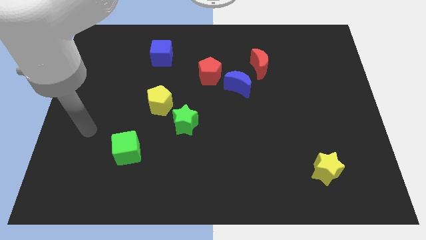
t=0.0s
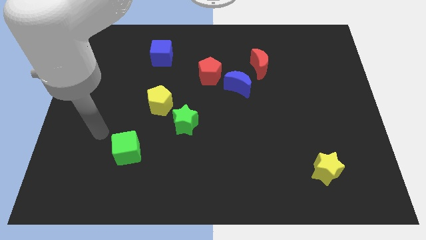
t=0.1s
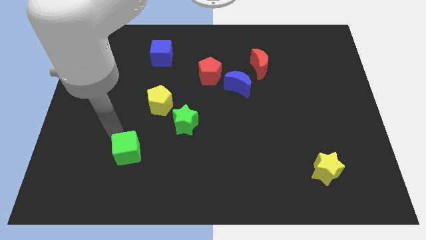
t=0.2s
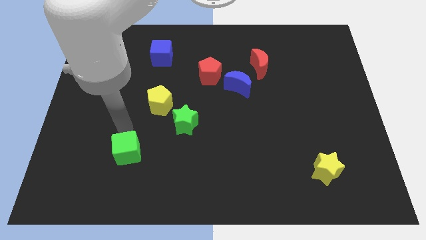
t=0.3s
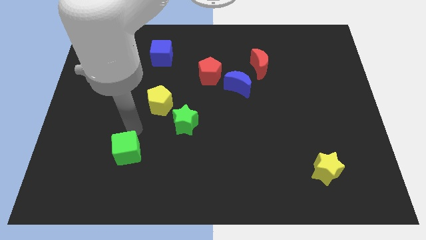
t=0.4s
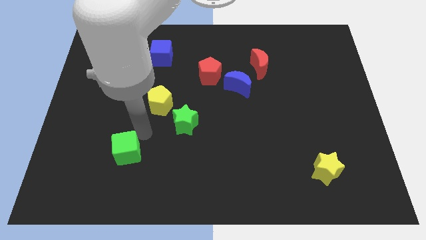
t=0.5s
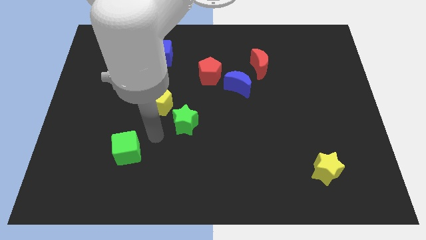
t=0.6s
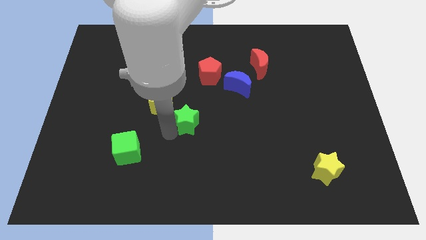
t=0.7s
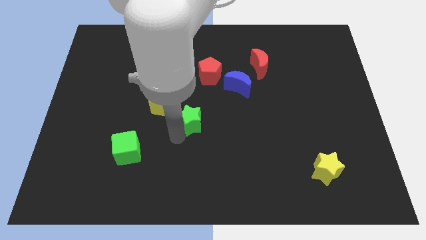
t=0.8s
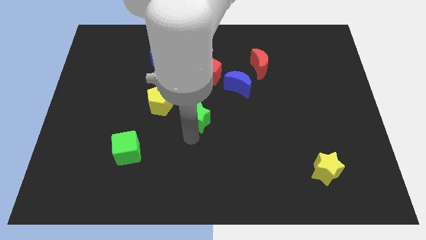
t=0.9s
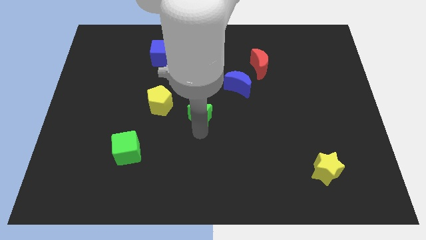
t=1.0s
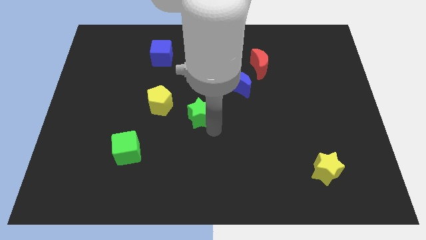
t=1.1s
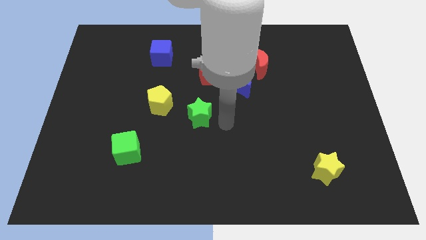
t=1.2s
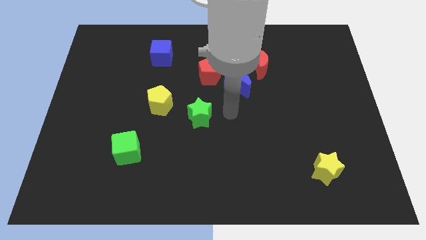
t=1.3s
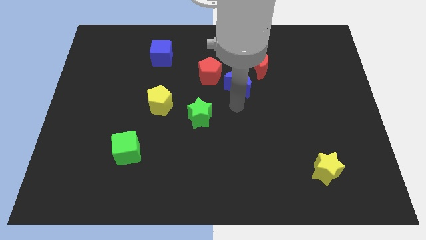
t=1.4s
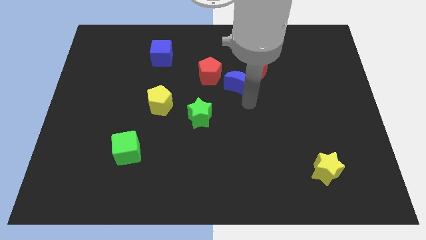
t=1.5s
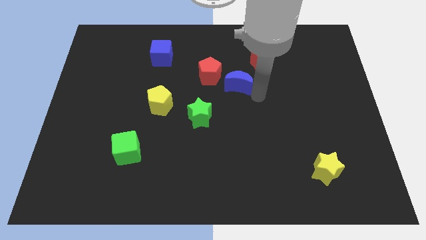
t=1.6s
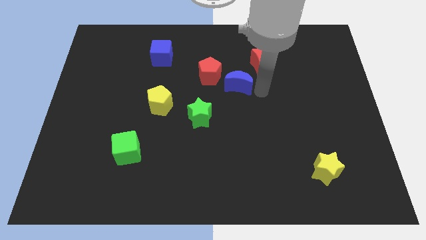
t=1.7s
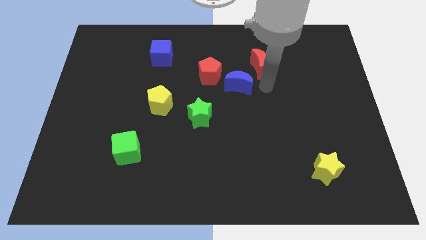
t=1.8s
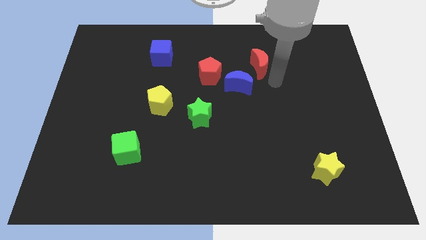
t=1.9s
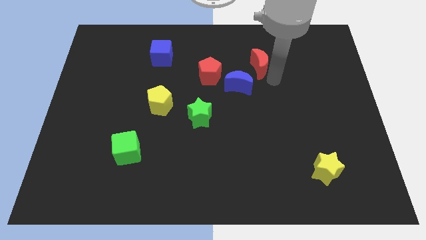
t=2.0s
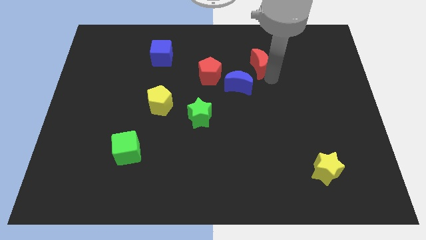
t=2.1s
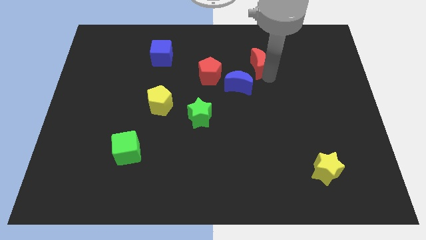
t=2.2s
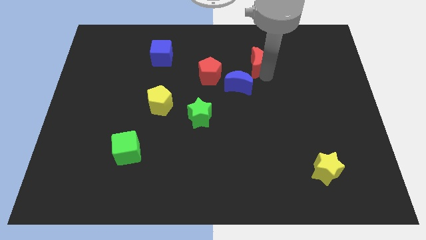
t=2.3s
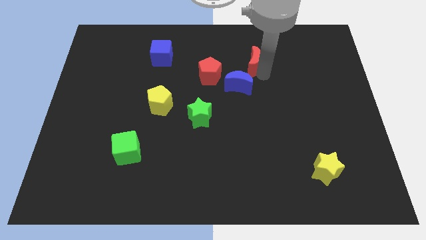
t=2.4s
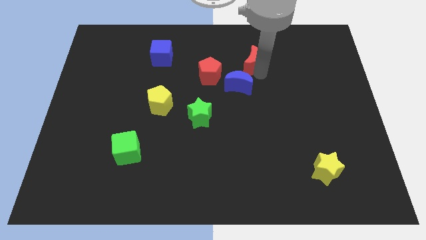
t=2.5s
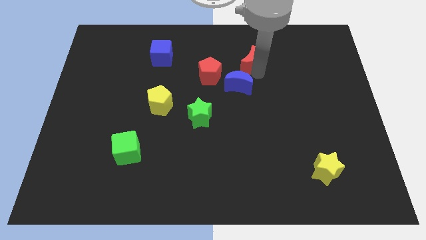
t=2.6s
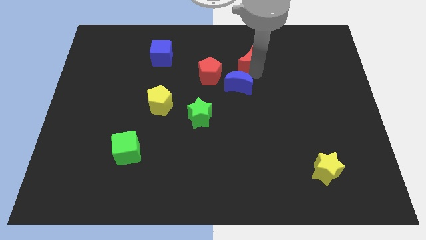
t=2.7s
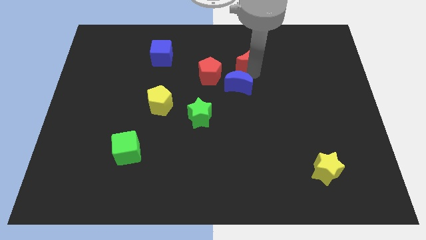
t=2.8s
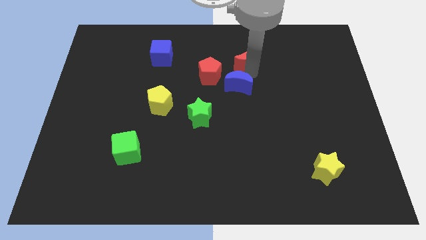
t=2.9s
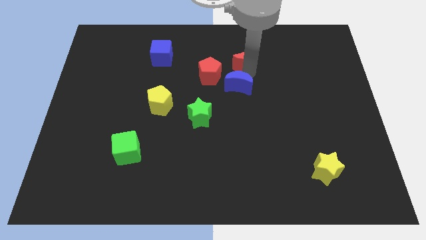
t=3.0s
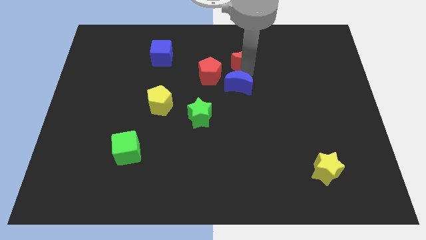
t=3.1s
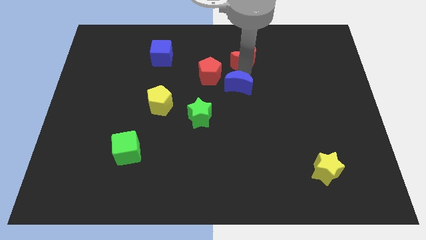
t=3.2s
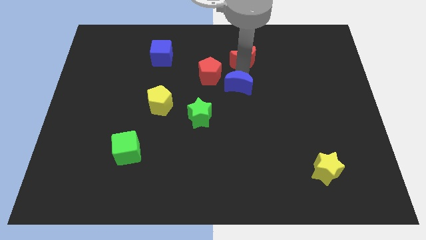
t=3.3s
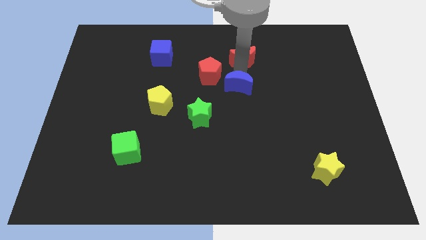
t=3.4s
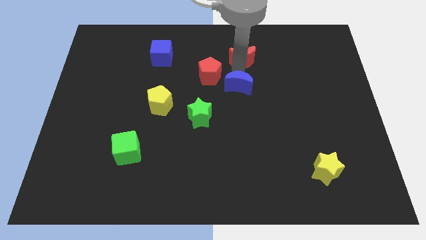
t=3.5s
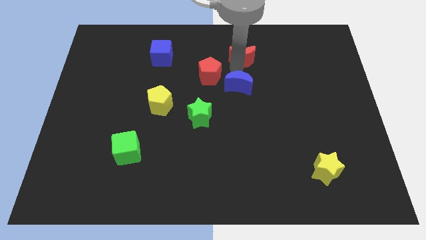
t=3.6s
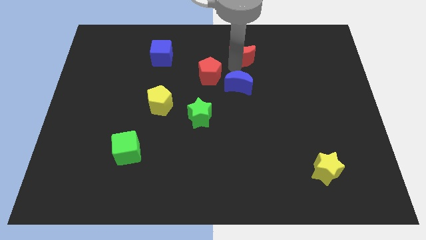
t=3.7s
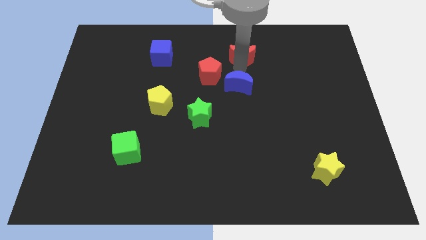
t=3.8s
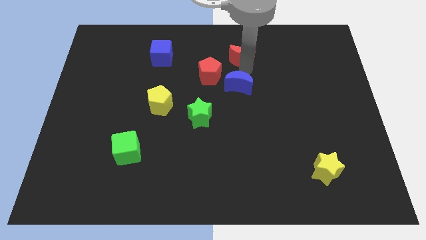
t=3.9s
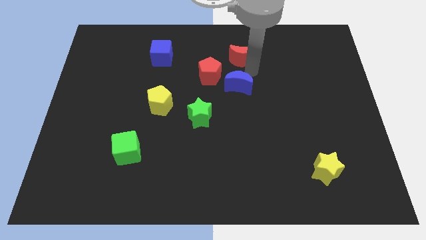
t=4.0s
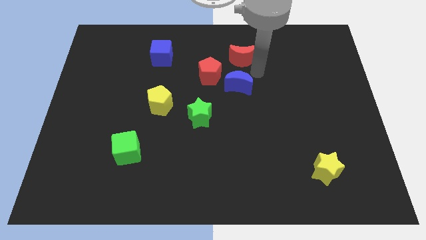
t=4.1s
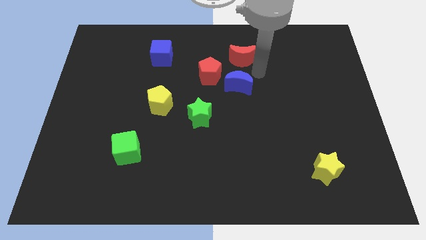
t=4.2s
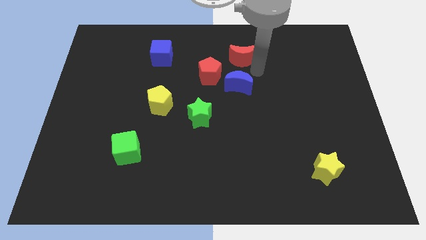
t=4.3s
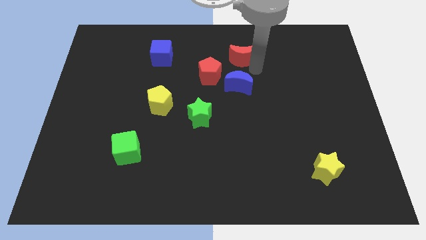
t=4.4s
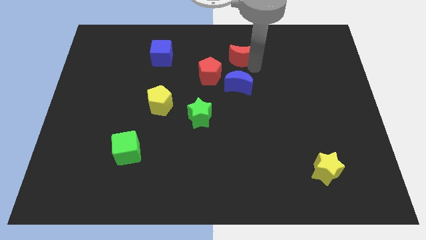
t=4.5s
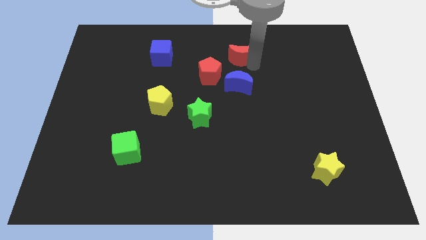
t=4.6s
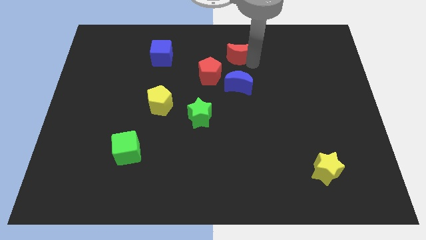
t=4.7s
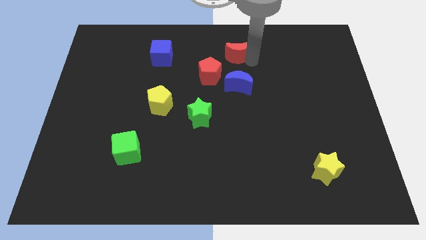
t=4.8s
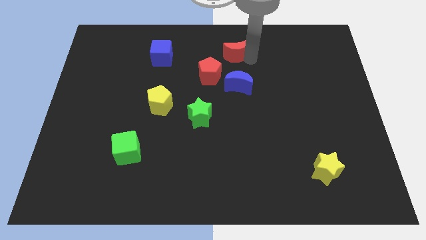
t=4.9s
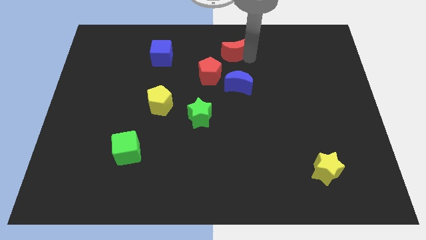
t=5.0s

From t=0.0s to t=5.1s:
push the red moon to the towards your base

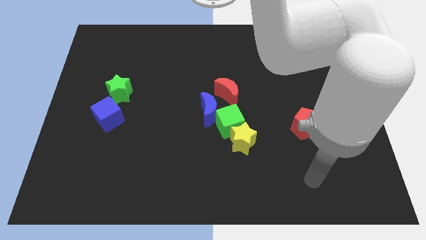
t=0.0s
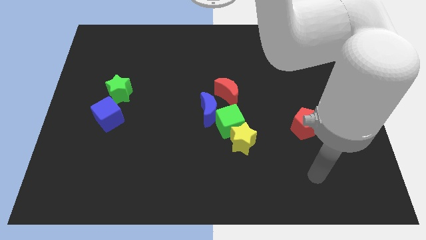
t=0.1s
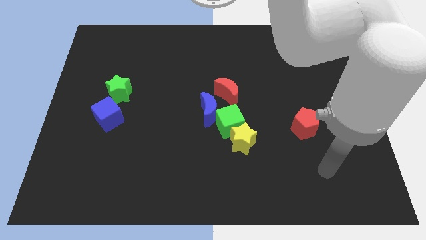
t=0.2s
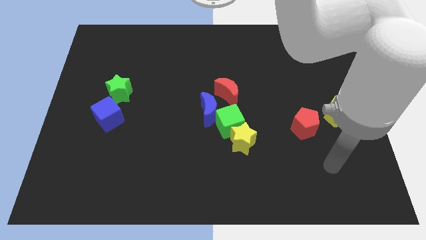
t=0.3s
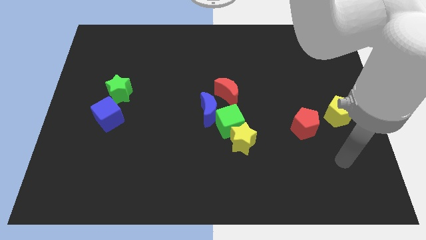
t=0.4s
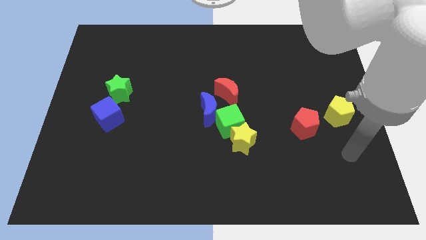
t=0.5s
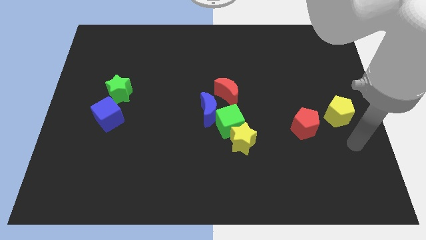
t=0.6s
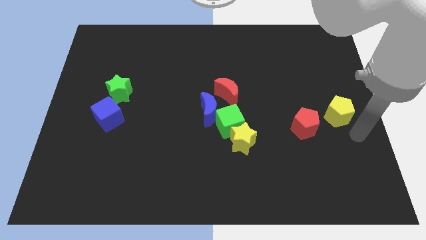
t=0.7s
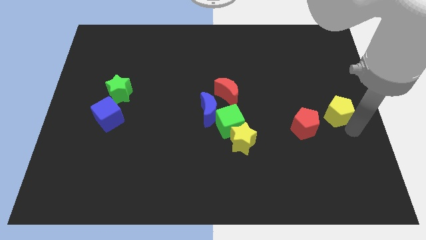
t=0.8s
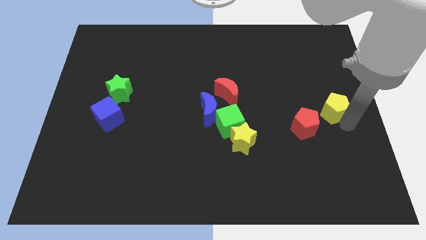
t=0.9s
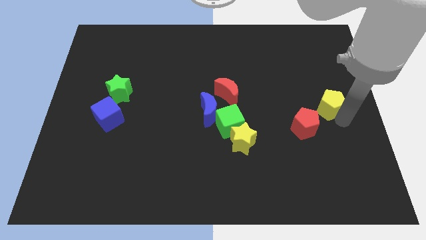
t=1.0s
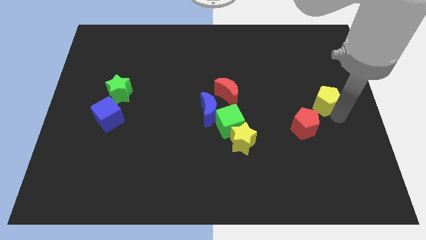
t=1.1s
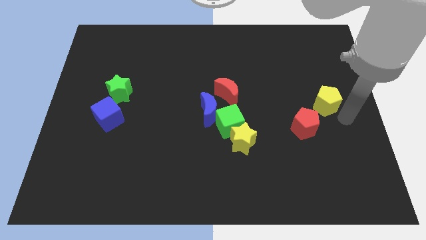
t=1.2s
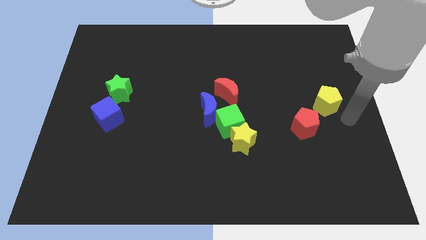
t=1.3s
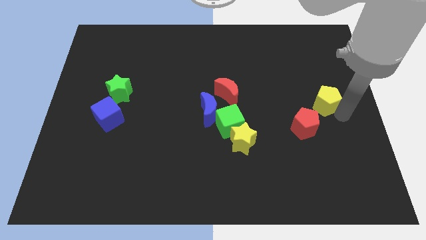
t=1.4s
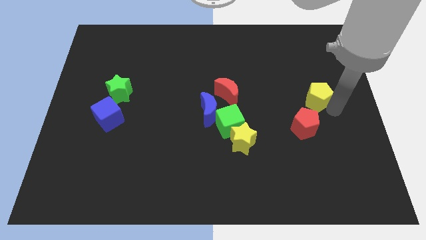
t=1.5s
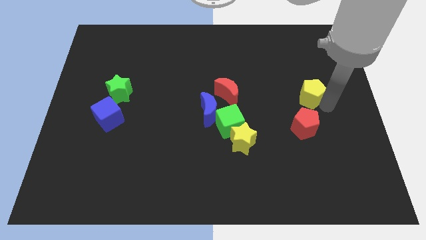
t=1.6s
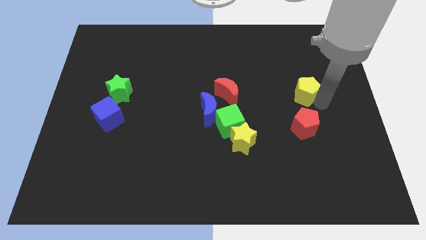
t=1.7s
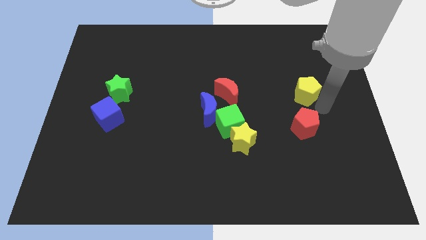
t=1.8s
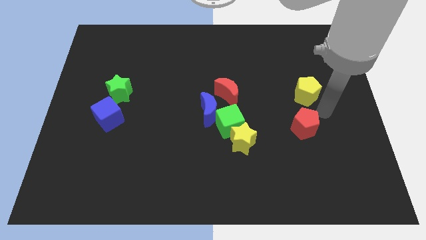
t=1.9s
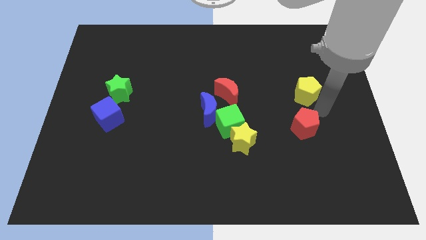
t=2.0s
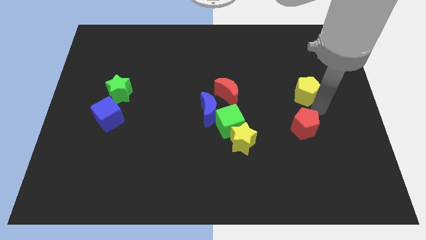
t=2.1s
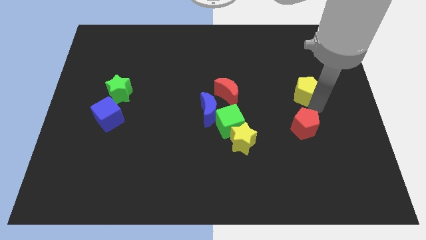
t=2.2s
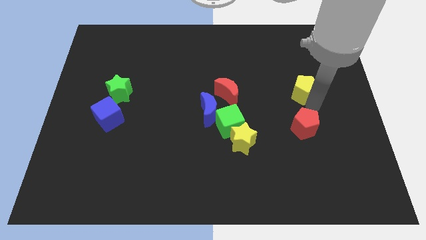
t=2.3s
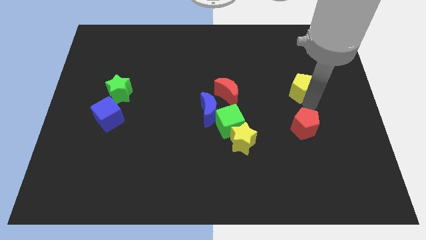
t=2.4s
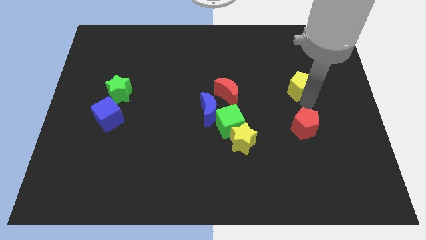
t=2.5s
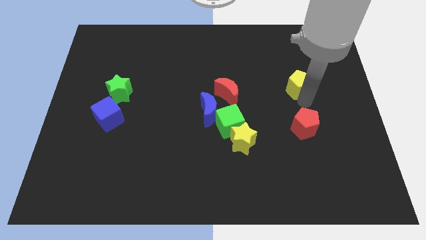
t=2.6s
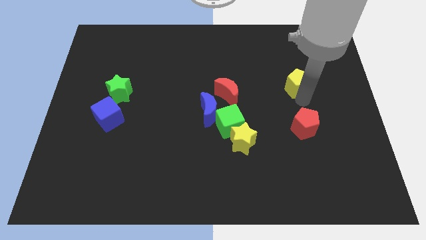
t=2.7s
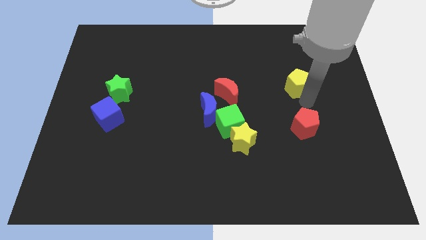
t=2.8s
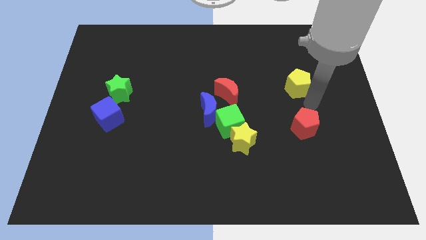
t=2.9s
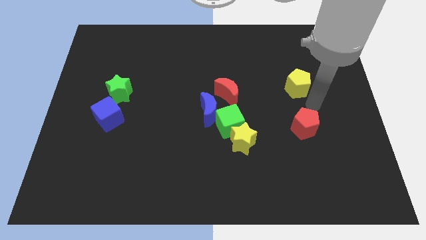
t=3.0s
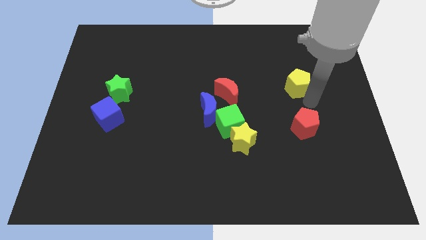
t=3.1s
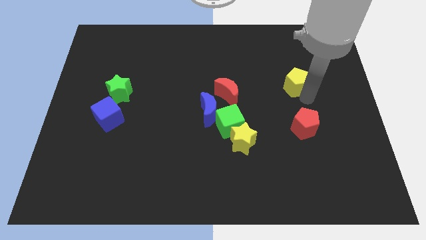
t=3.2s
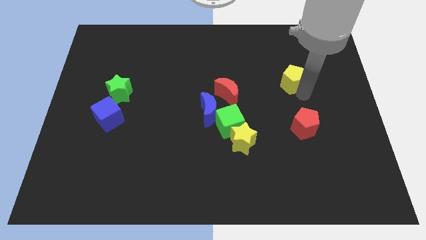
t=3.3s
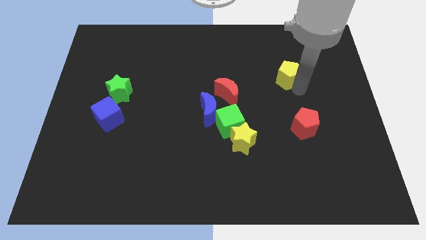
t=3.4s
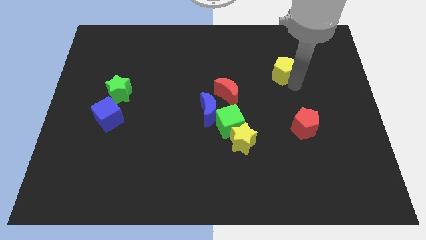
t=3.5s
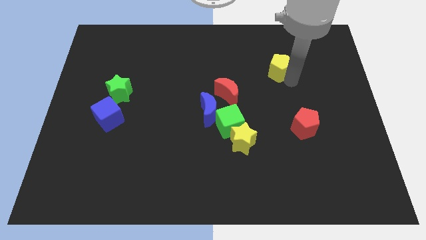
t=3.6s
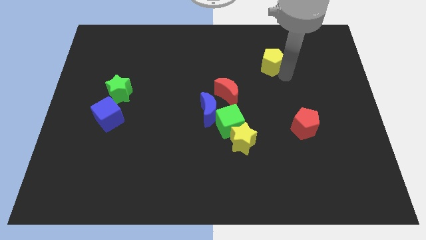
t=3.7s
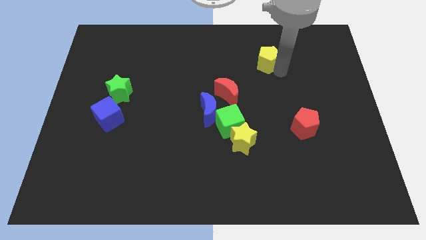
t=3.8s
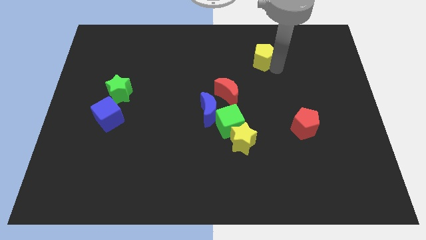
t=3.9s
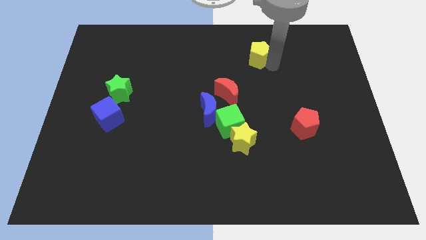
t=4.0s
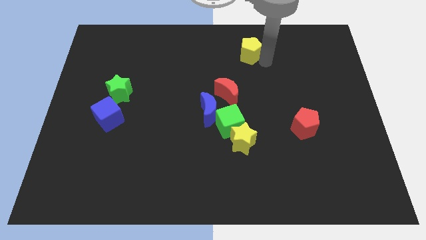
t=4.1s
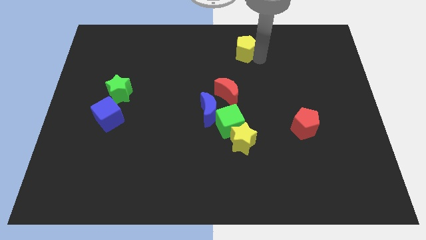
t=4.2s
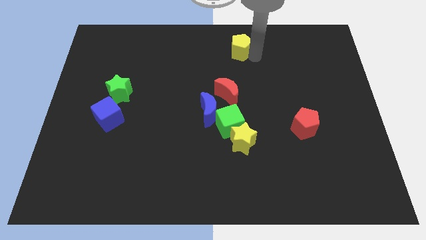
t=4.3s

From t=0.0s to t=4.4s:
put the yellow pentagon to the towards your base
